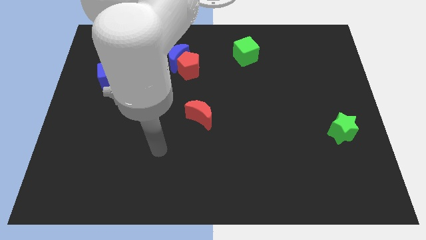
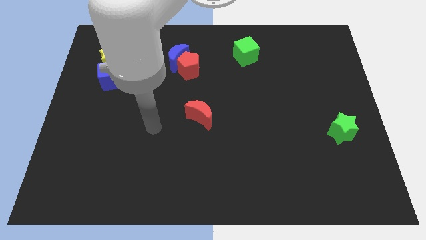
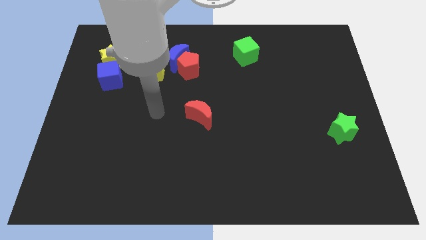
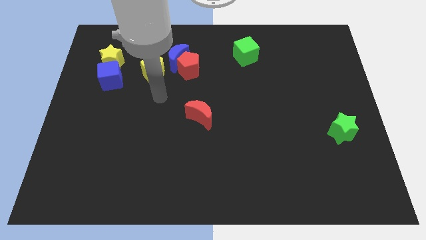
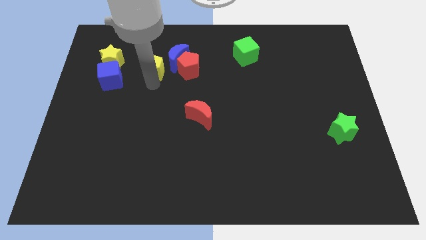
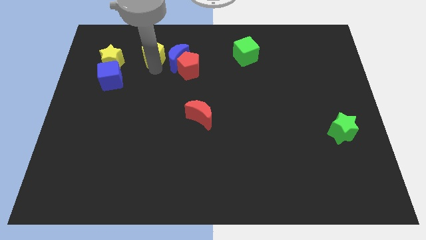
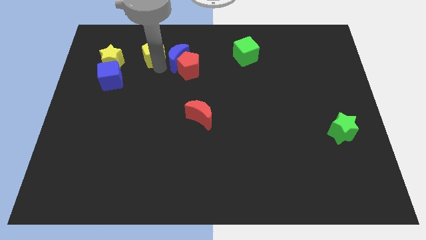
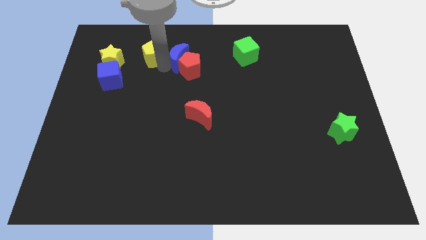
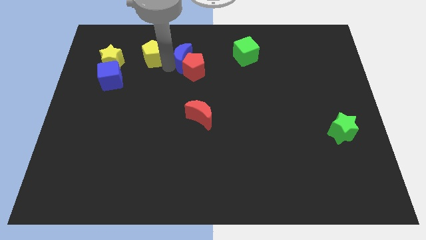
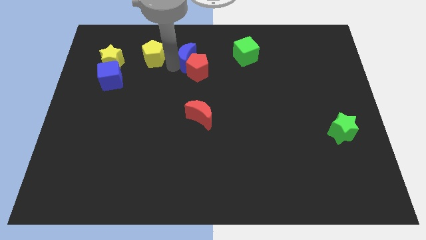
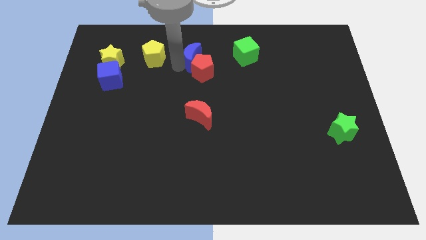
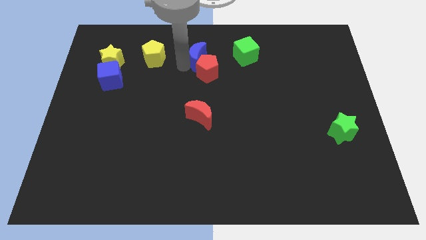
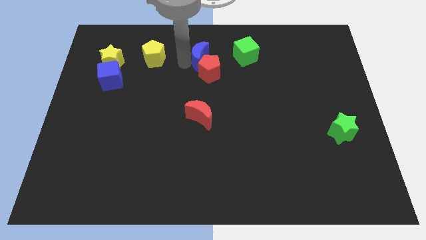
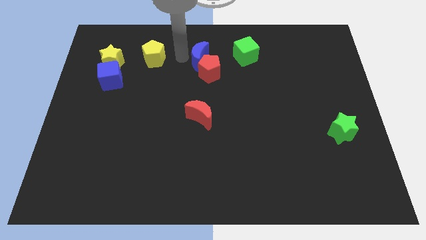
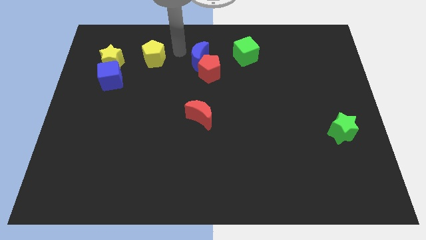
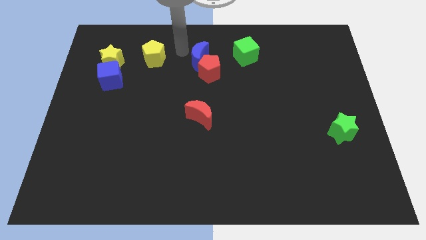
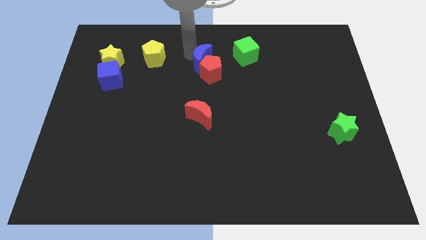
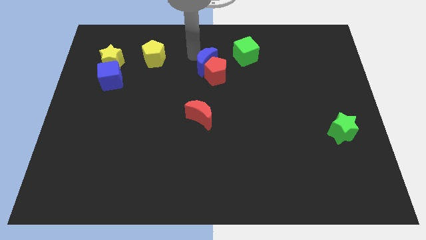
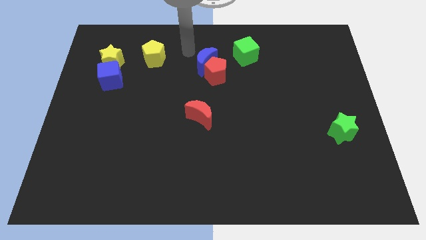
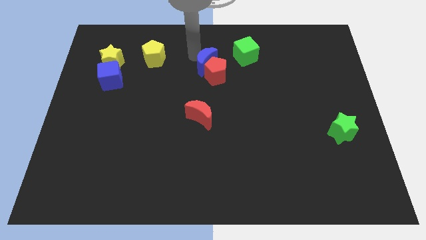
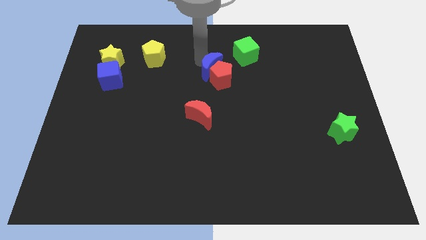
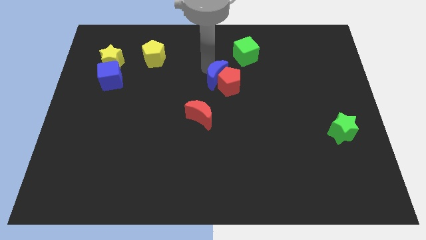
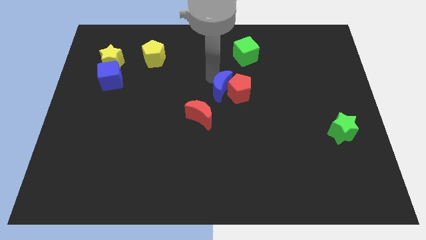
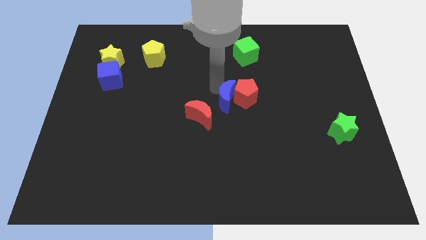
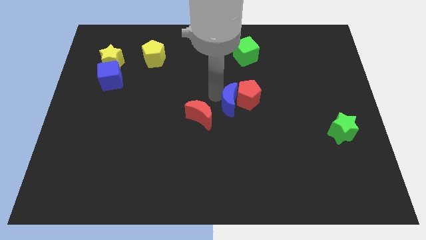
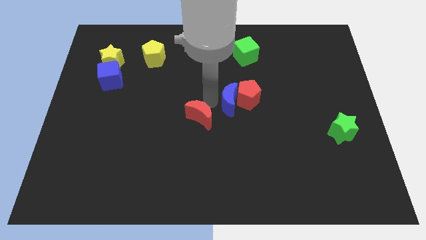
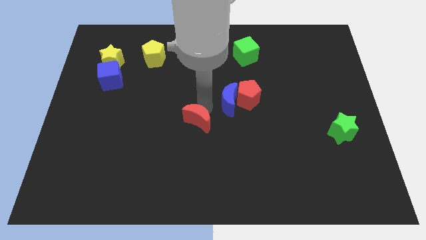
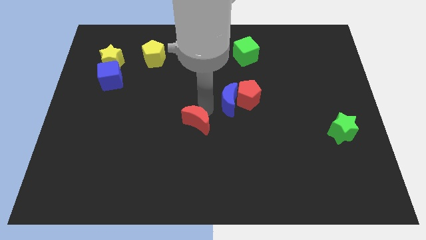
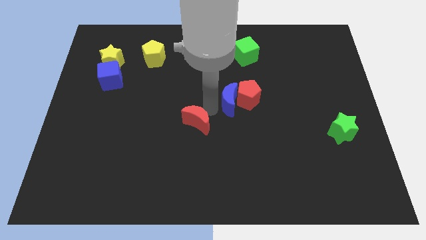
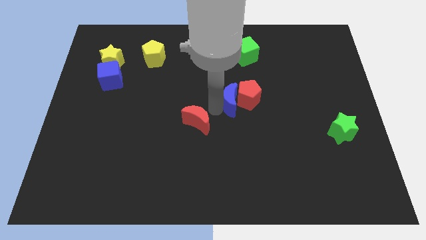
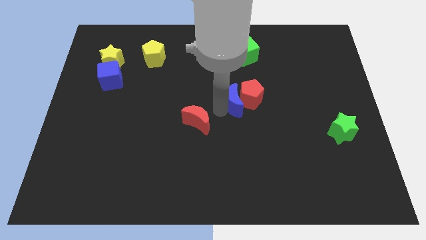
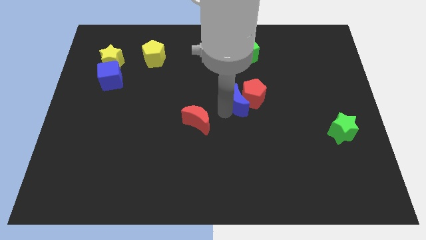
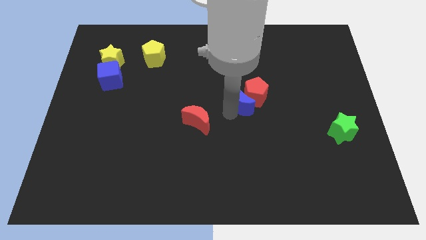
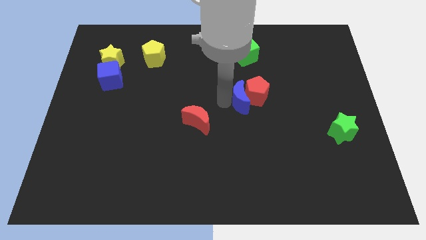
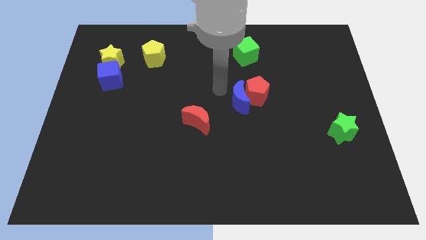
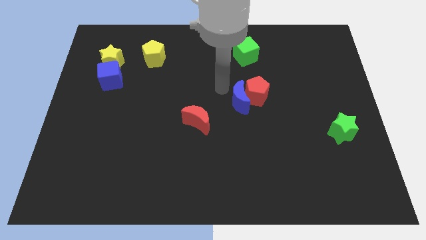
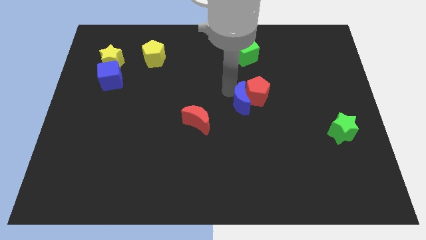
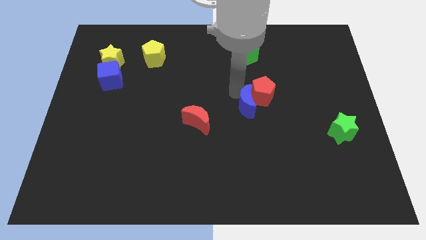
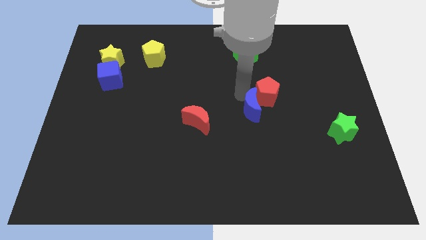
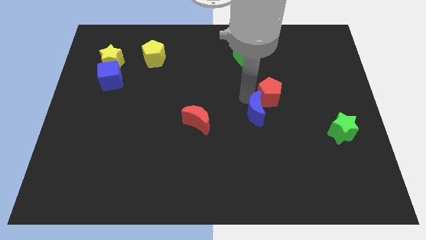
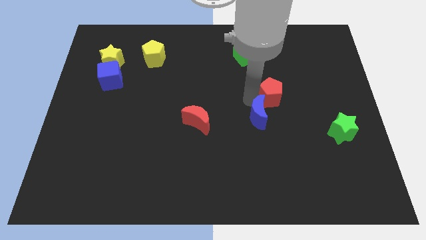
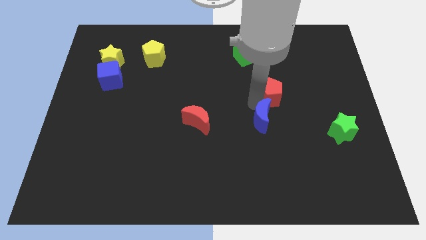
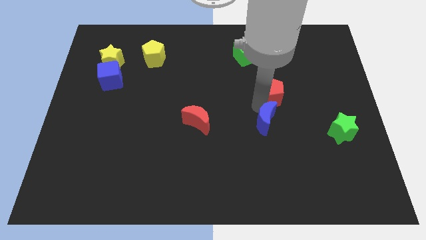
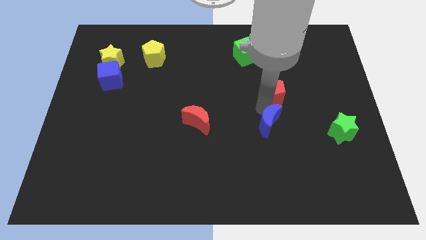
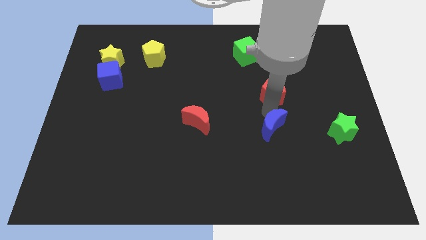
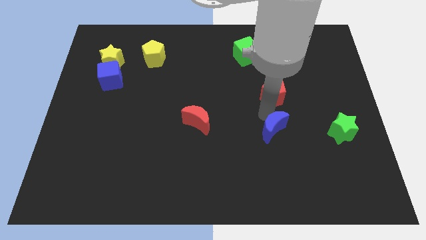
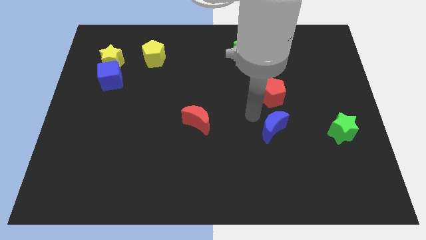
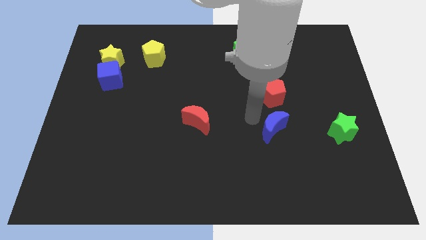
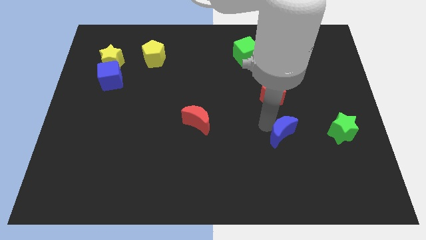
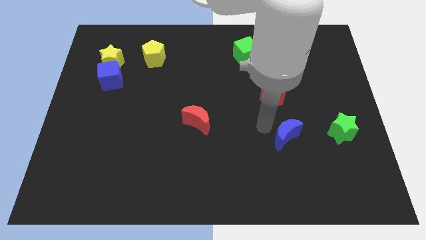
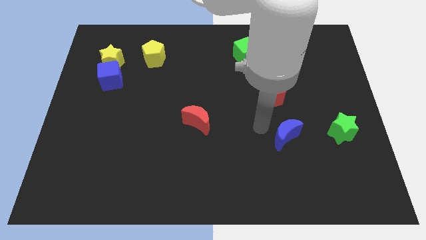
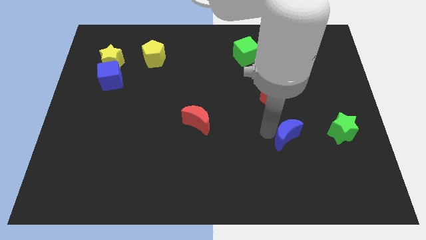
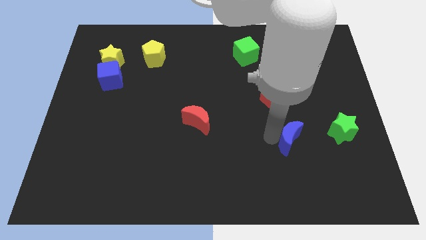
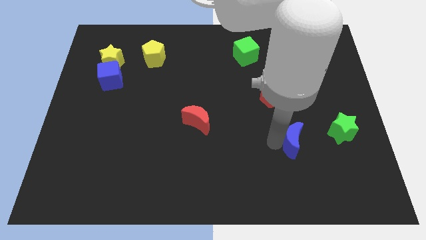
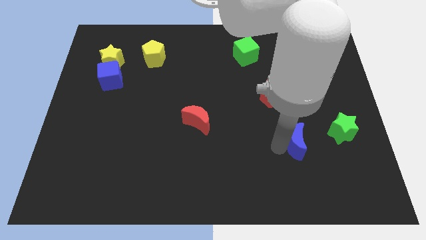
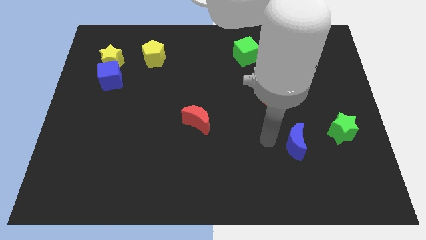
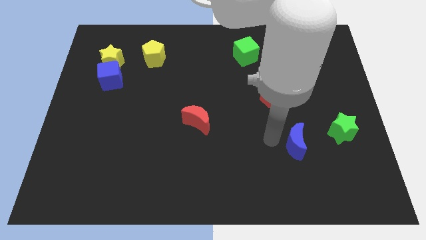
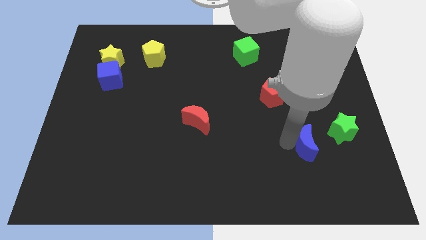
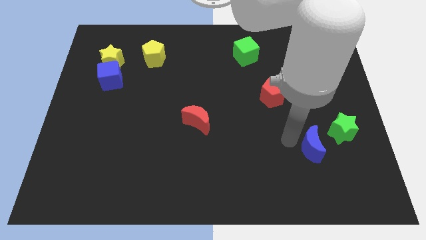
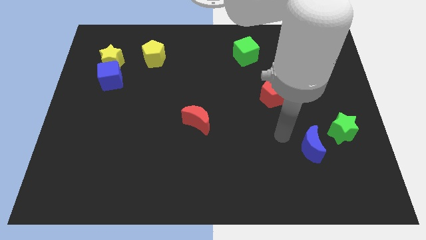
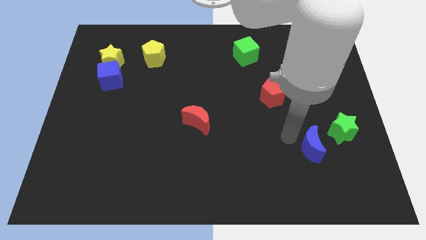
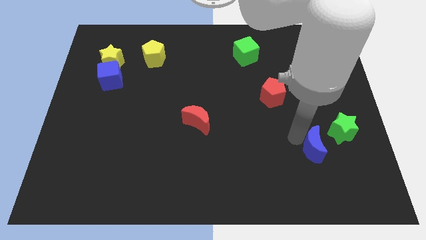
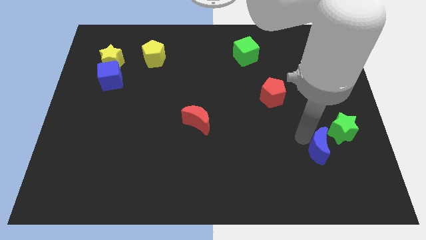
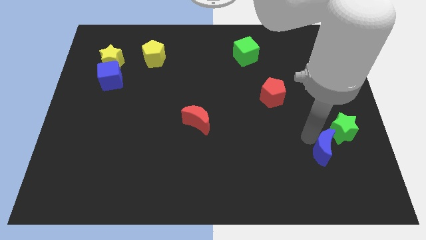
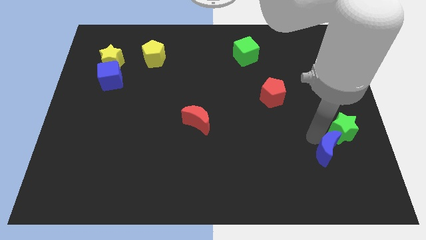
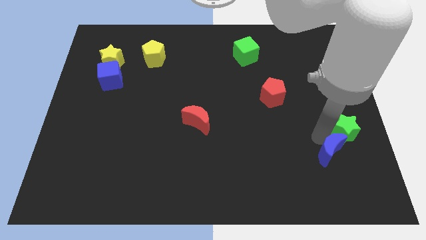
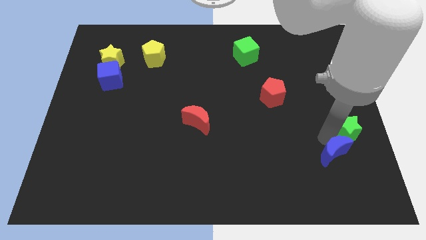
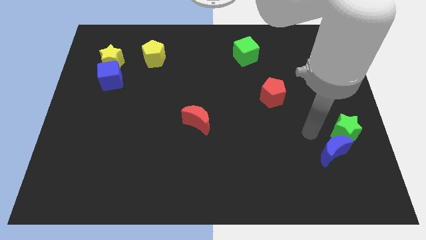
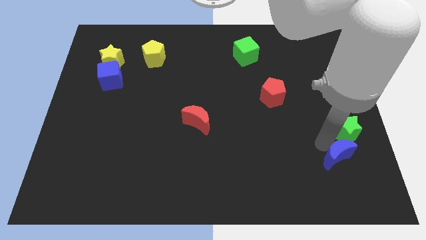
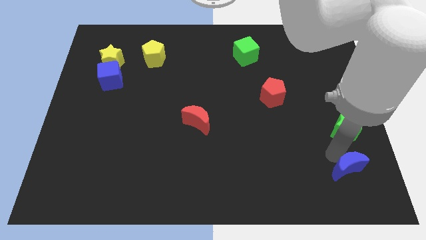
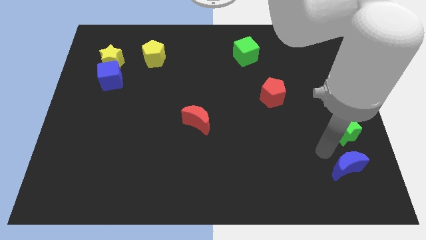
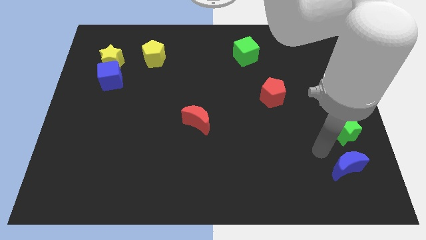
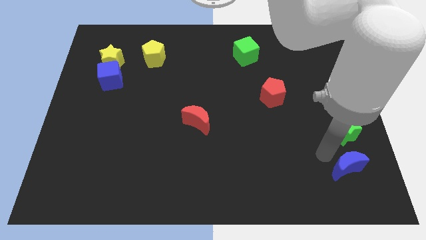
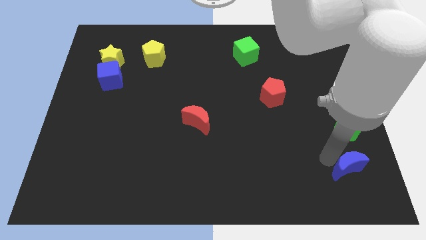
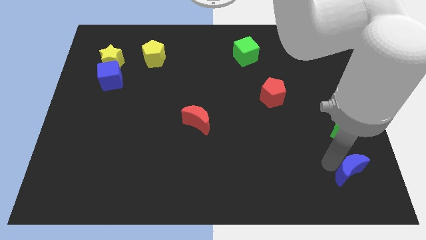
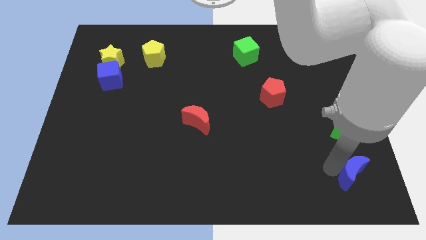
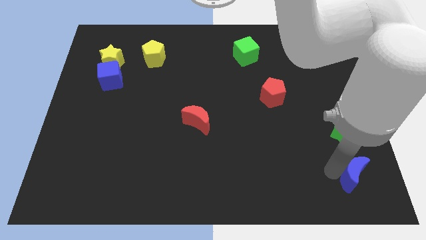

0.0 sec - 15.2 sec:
push the blue moon to the bottom right corner
